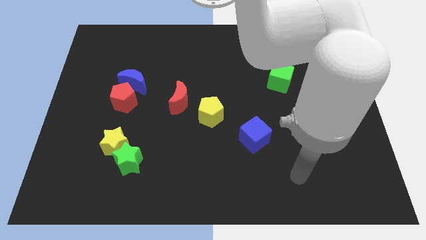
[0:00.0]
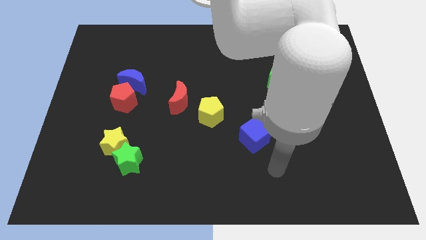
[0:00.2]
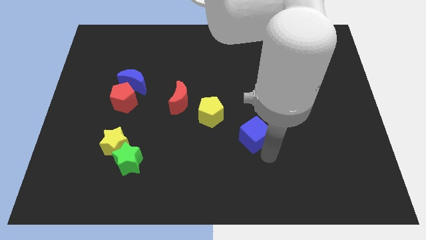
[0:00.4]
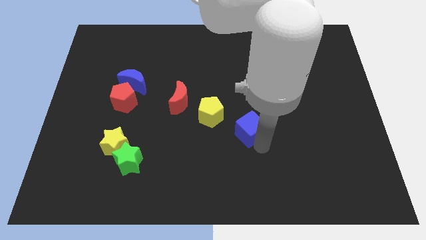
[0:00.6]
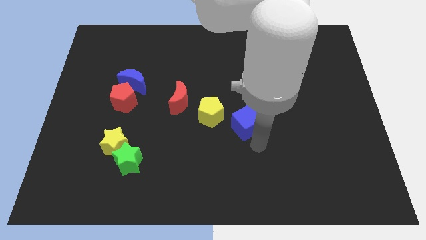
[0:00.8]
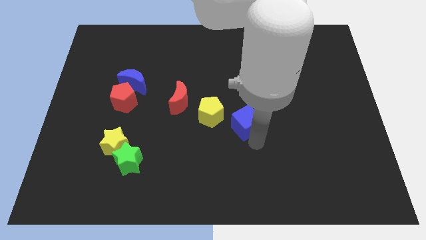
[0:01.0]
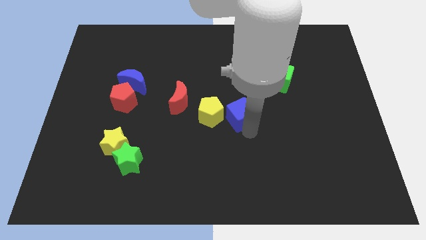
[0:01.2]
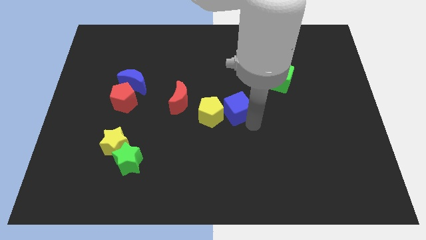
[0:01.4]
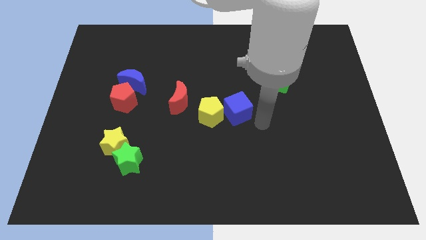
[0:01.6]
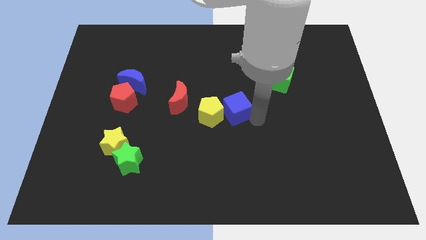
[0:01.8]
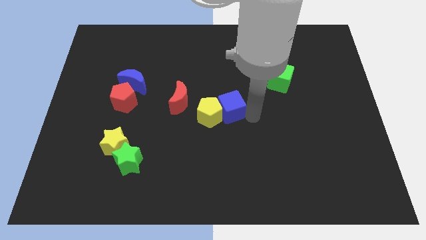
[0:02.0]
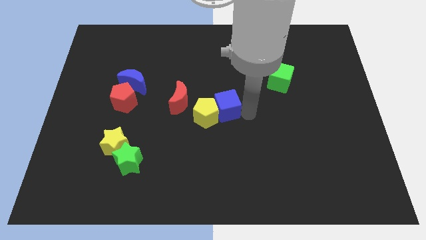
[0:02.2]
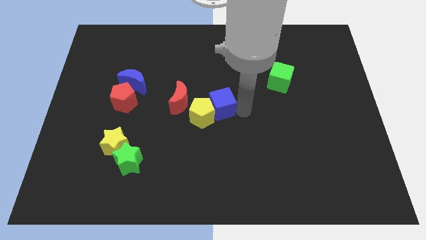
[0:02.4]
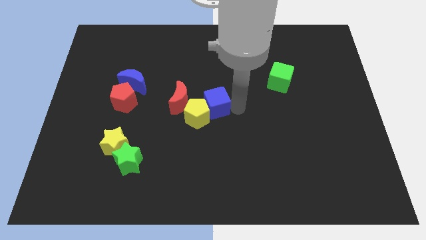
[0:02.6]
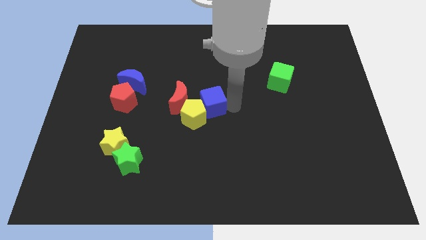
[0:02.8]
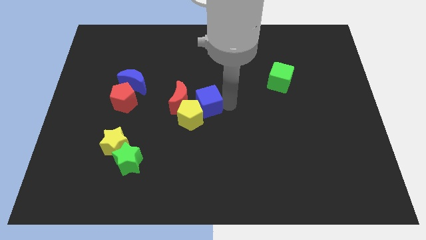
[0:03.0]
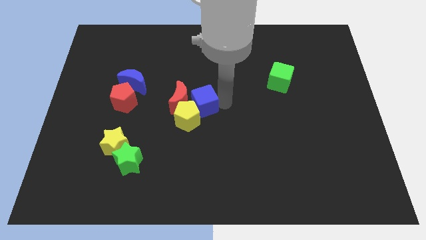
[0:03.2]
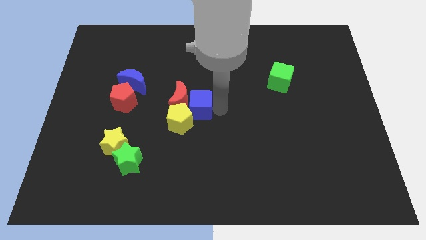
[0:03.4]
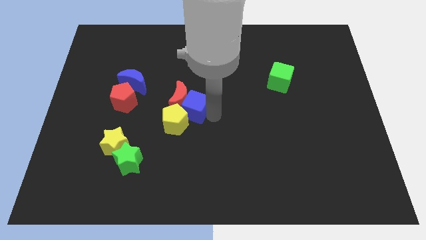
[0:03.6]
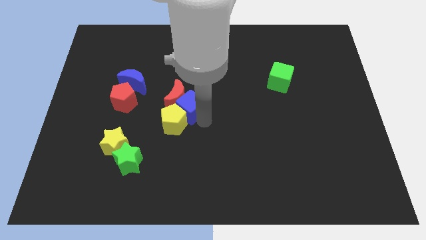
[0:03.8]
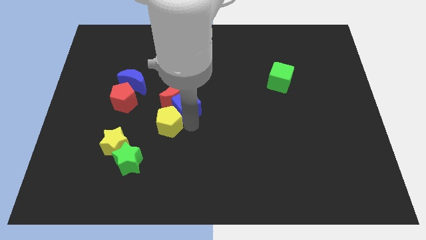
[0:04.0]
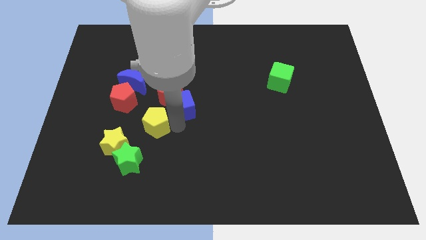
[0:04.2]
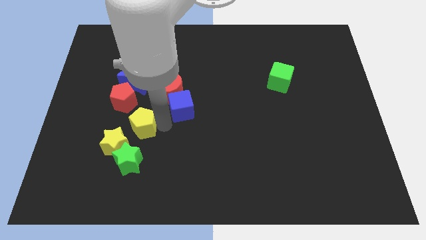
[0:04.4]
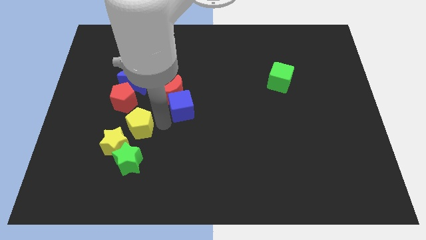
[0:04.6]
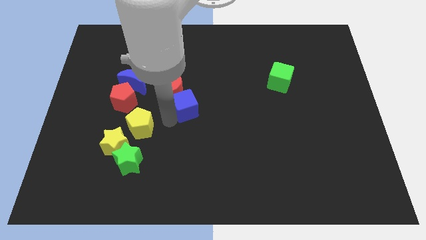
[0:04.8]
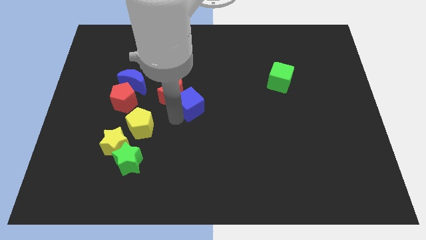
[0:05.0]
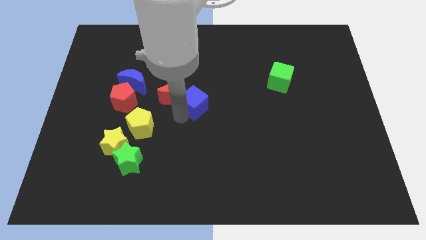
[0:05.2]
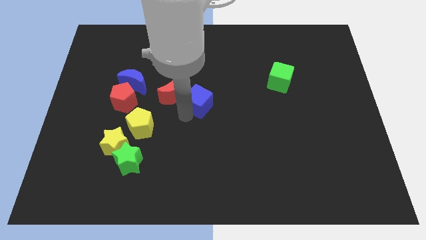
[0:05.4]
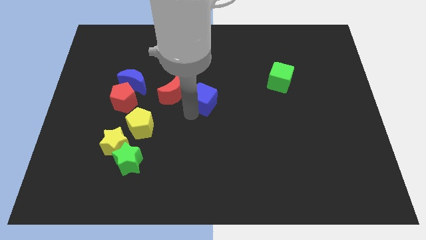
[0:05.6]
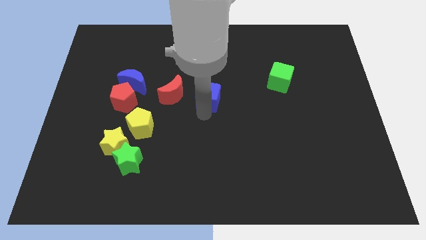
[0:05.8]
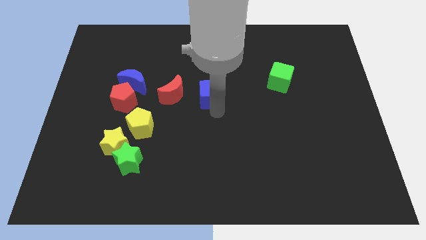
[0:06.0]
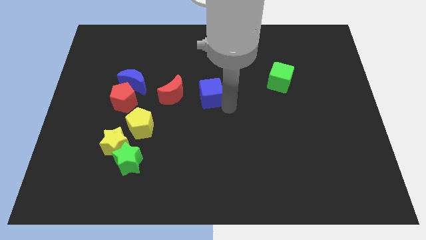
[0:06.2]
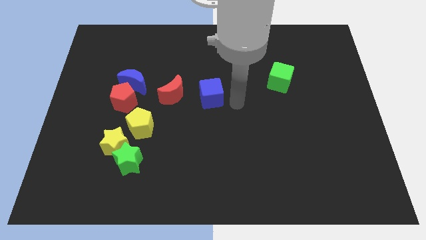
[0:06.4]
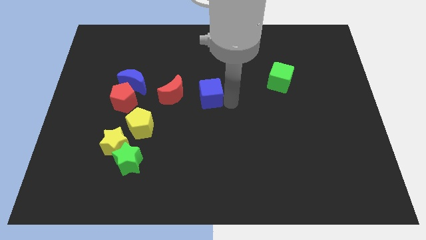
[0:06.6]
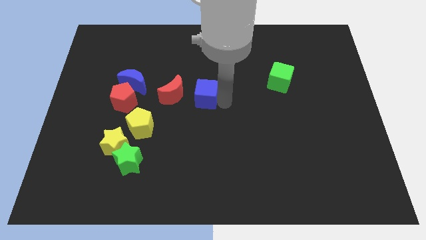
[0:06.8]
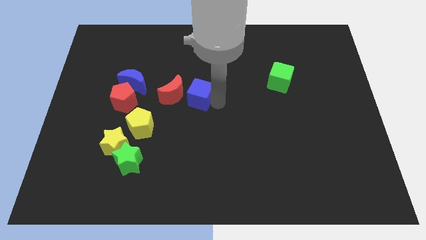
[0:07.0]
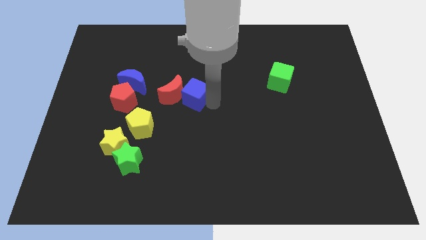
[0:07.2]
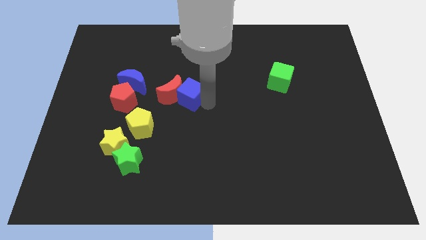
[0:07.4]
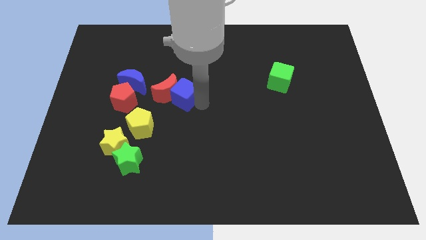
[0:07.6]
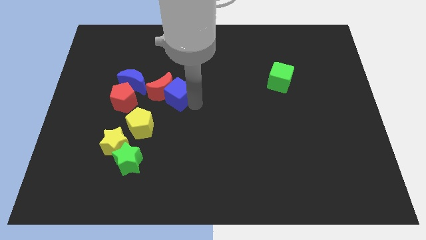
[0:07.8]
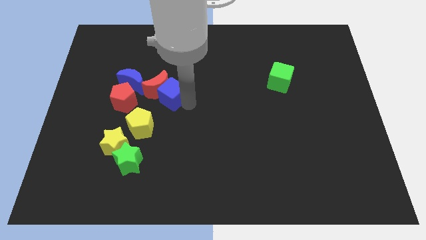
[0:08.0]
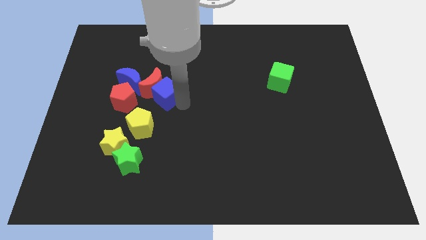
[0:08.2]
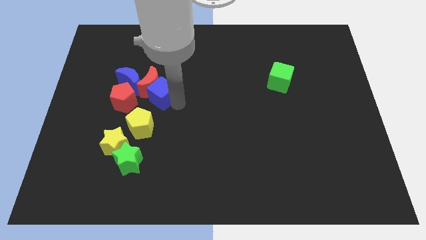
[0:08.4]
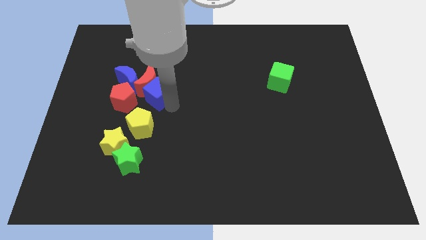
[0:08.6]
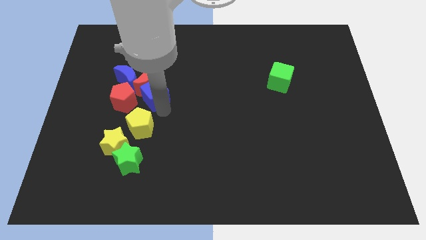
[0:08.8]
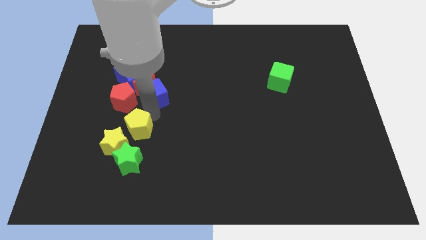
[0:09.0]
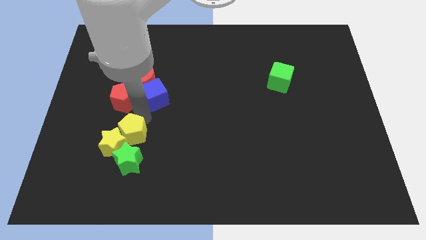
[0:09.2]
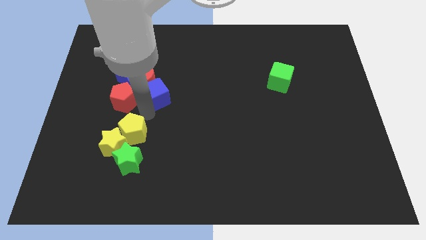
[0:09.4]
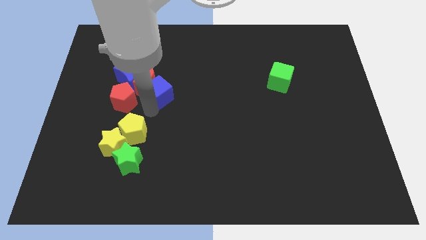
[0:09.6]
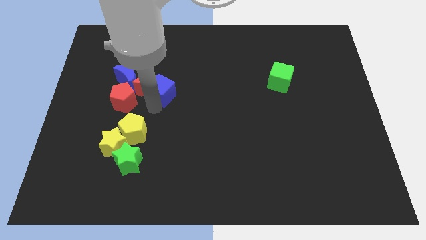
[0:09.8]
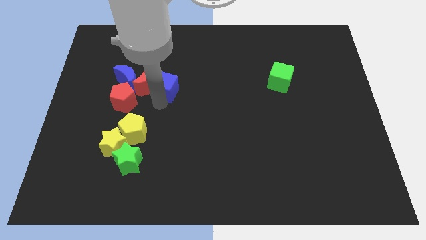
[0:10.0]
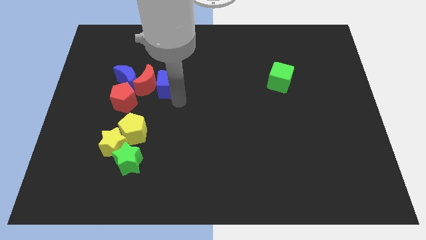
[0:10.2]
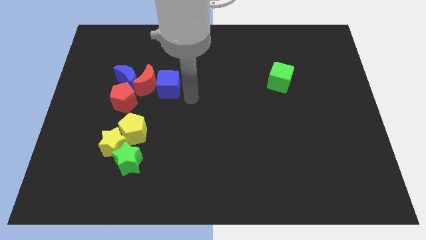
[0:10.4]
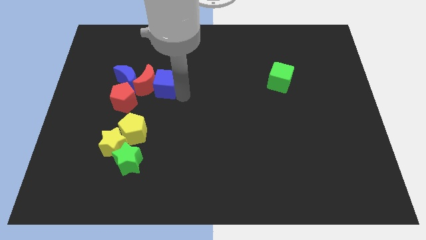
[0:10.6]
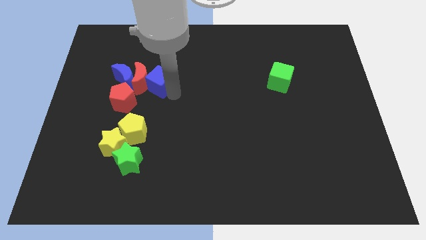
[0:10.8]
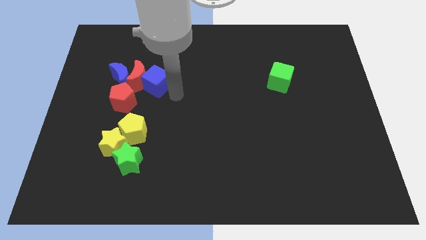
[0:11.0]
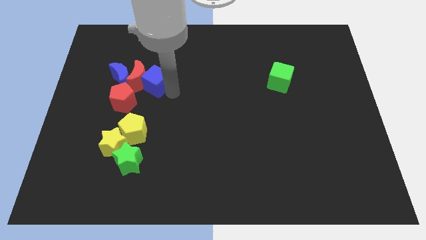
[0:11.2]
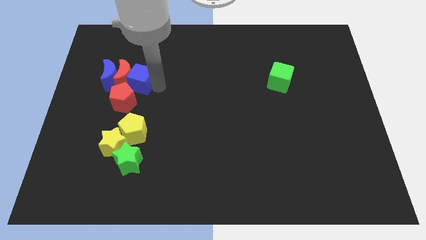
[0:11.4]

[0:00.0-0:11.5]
put the blue cube to the top side of the red pentagon

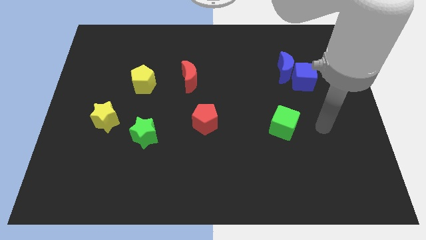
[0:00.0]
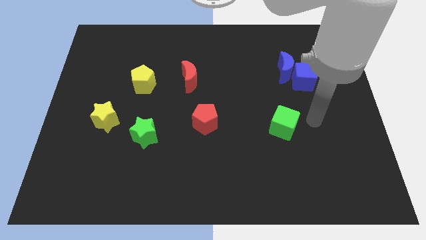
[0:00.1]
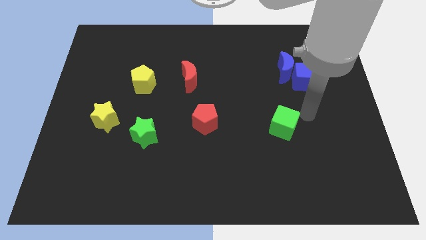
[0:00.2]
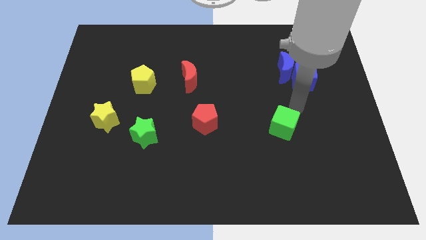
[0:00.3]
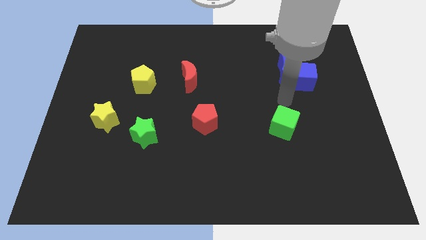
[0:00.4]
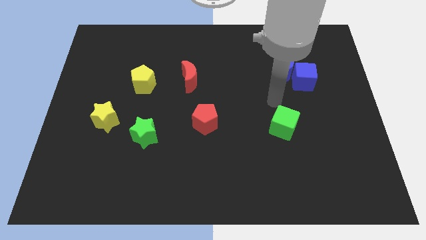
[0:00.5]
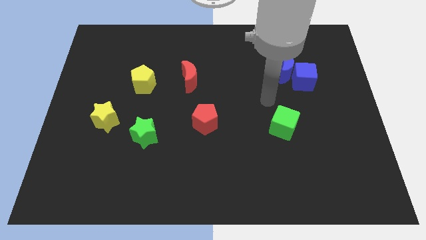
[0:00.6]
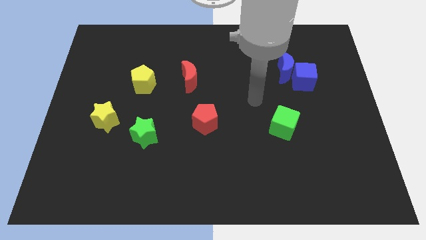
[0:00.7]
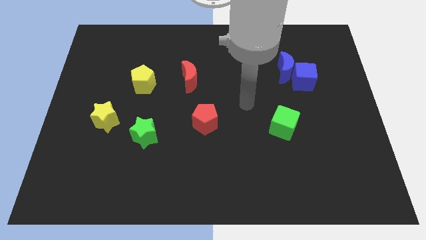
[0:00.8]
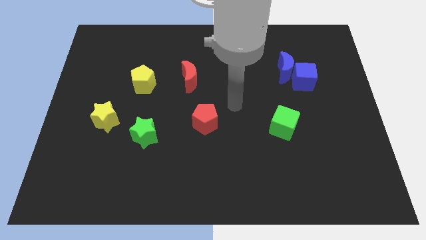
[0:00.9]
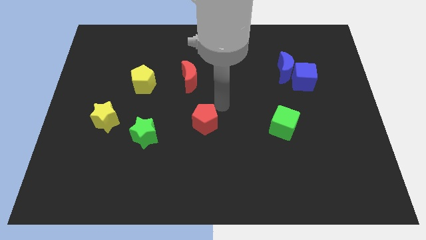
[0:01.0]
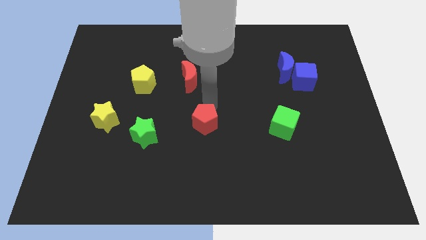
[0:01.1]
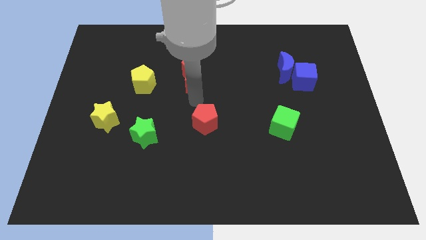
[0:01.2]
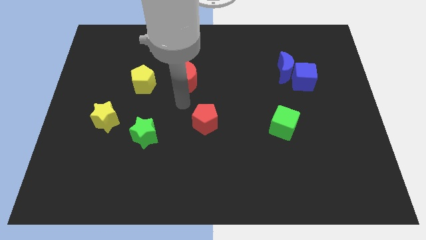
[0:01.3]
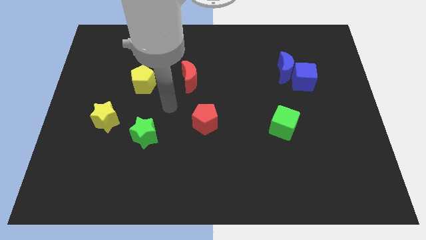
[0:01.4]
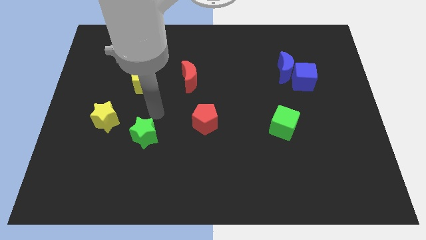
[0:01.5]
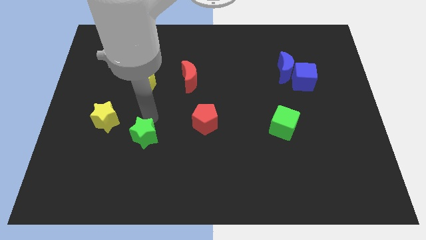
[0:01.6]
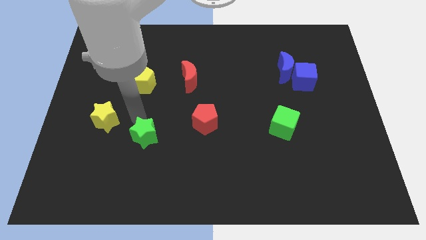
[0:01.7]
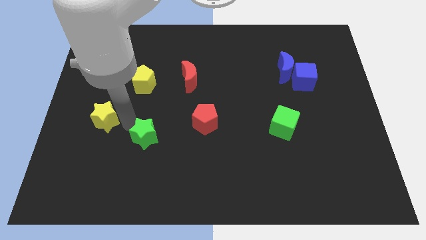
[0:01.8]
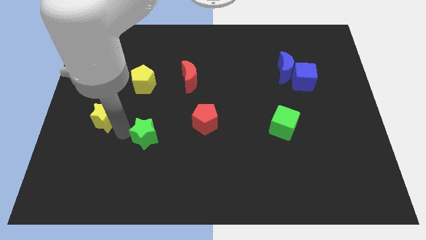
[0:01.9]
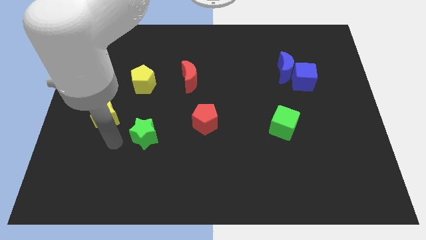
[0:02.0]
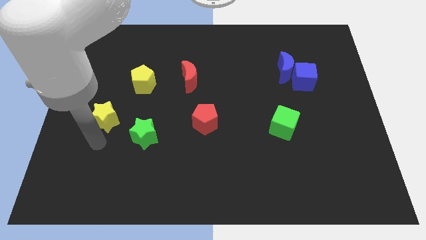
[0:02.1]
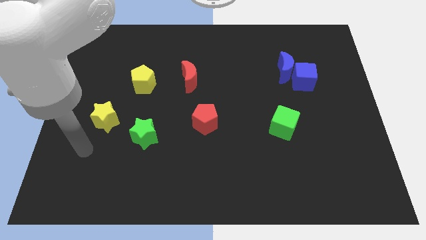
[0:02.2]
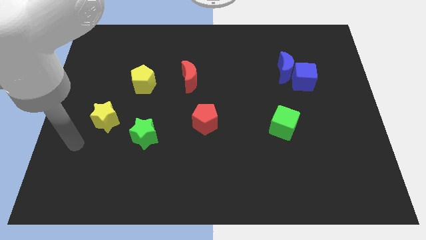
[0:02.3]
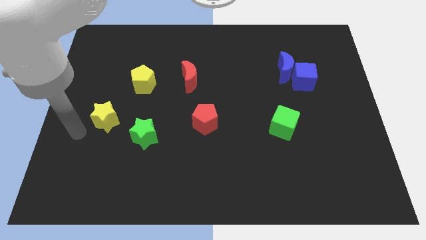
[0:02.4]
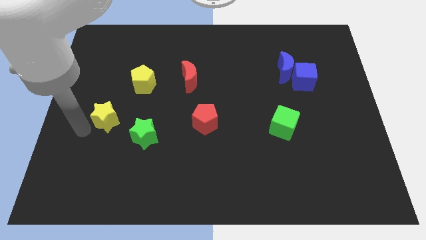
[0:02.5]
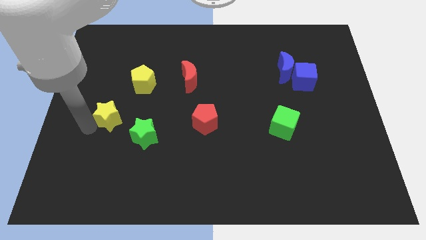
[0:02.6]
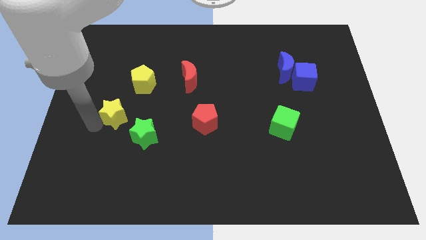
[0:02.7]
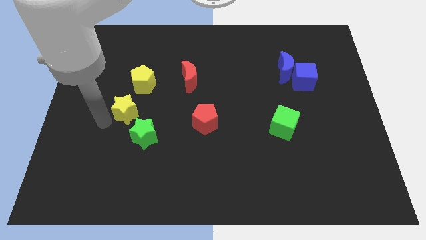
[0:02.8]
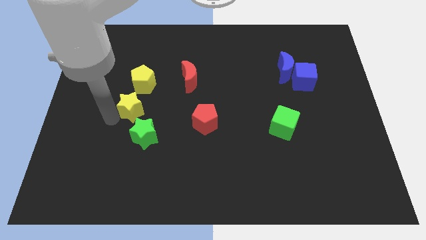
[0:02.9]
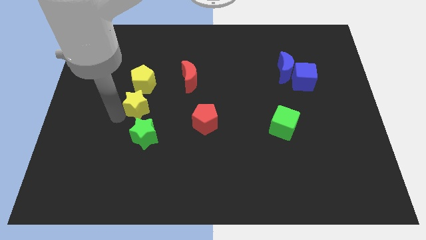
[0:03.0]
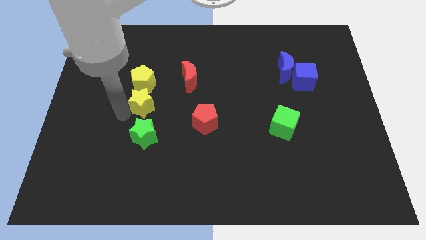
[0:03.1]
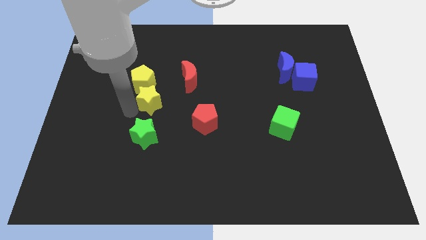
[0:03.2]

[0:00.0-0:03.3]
put the yellow star to the bottom left side of the red moon
